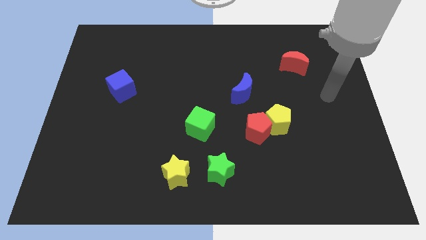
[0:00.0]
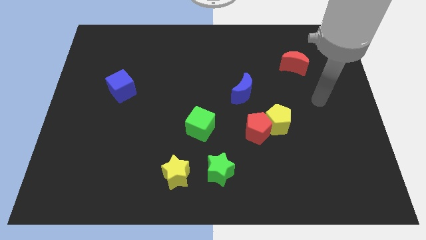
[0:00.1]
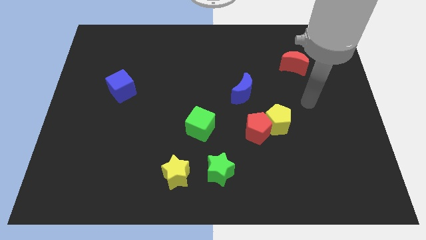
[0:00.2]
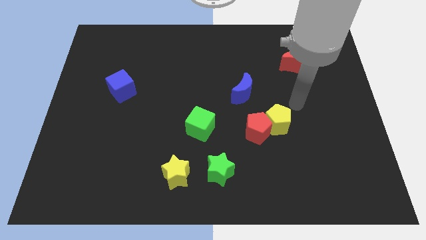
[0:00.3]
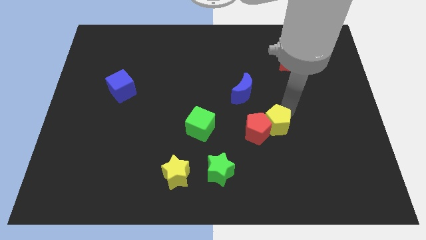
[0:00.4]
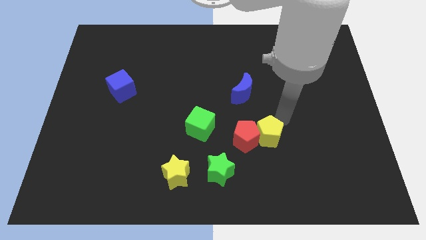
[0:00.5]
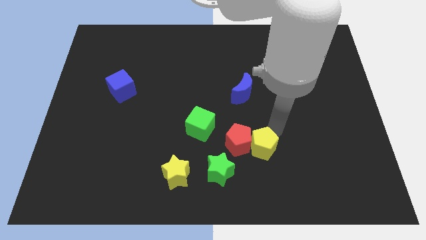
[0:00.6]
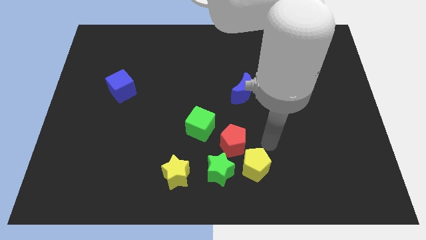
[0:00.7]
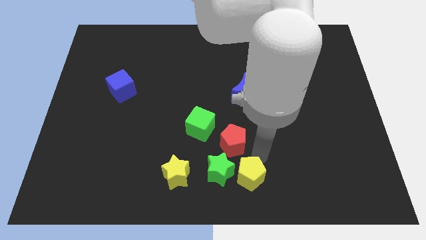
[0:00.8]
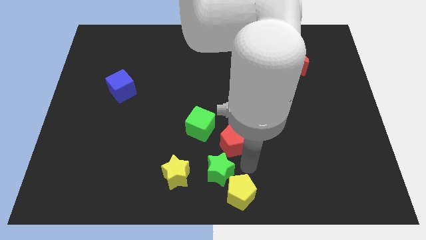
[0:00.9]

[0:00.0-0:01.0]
pull the red pentagon apart from the yellow pentagon

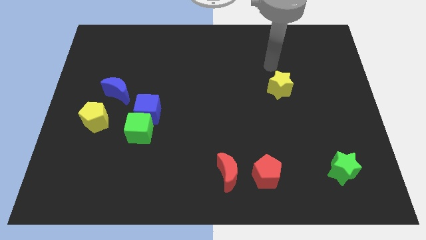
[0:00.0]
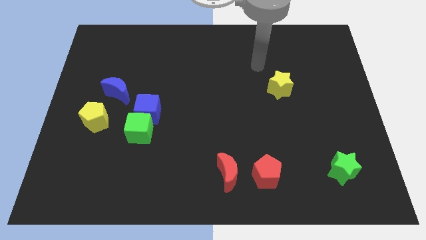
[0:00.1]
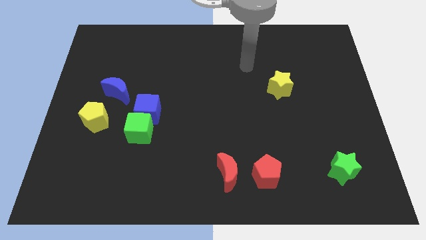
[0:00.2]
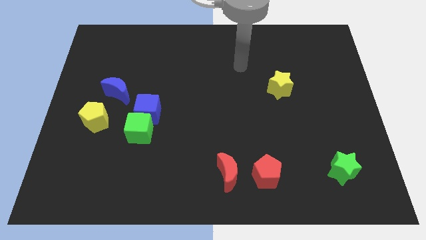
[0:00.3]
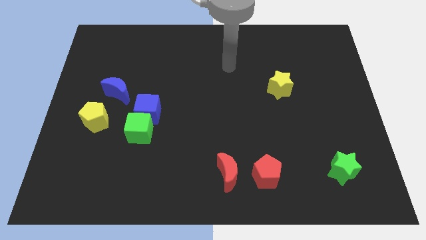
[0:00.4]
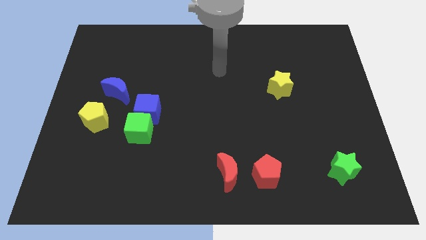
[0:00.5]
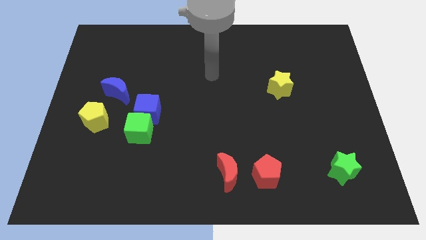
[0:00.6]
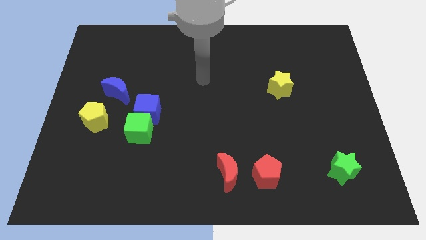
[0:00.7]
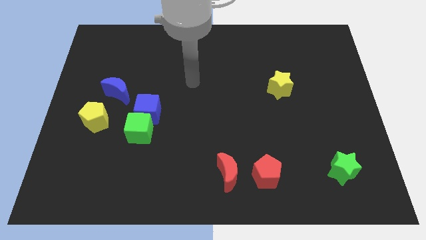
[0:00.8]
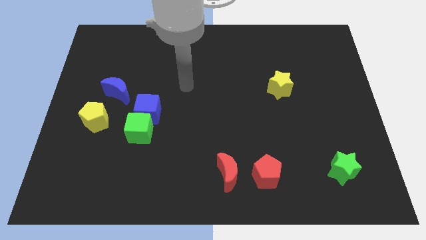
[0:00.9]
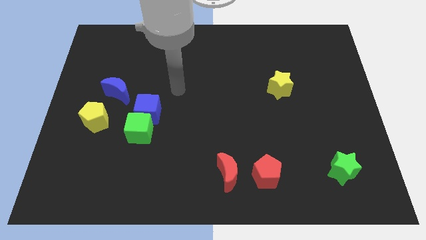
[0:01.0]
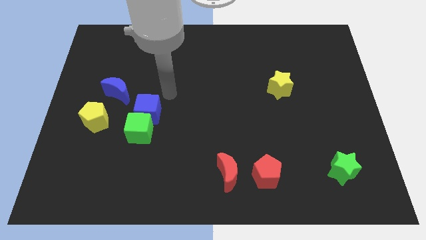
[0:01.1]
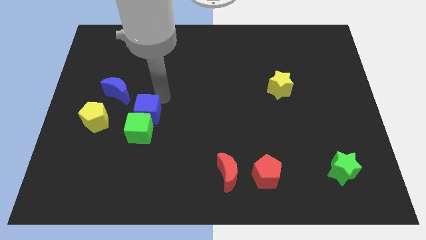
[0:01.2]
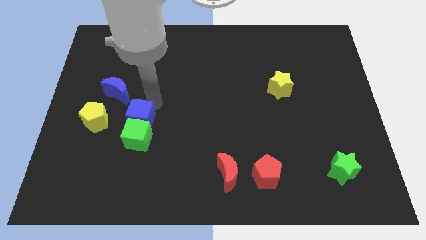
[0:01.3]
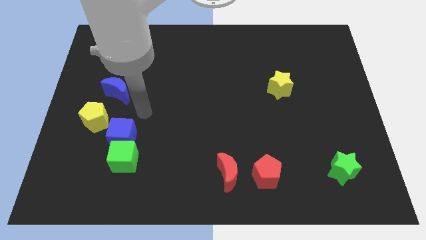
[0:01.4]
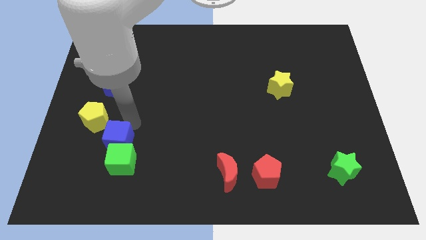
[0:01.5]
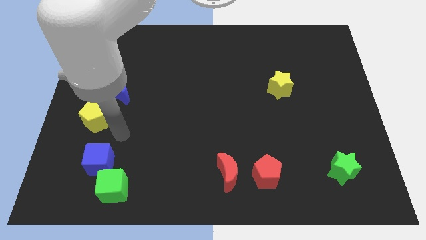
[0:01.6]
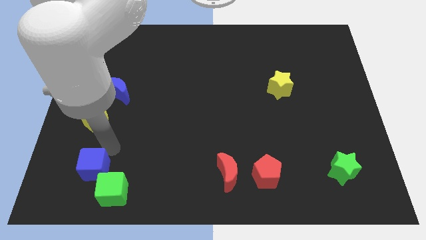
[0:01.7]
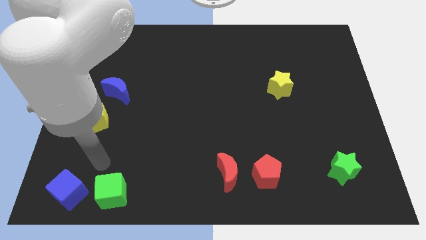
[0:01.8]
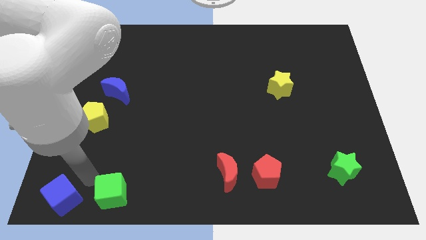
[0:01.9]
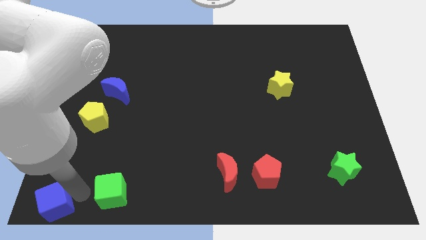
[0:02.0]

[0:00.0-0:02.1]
pull the green cube apart from the blue cube

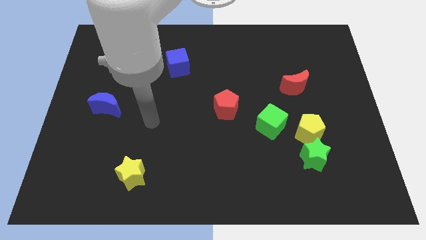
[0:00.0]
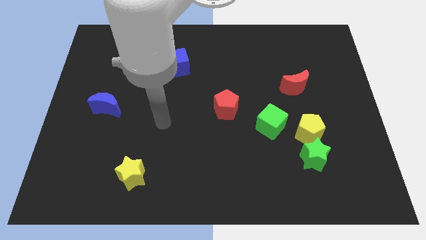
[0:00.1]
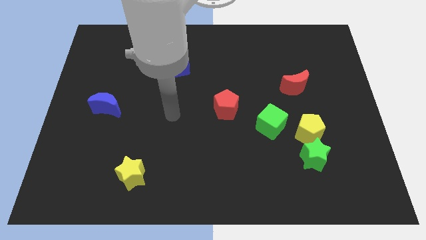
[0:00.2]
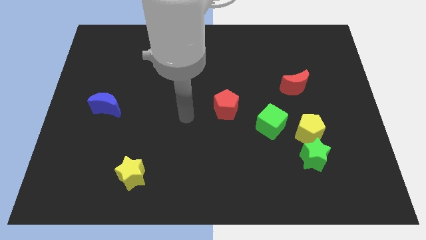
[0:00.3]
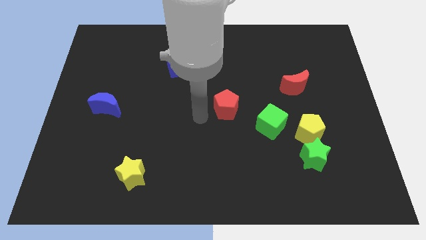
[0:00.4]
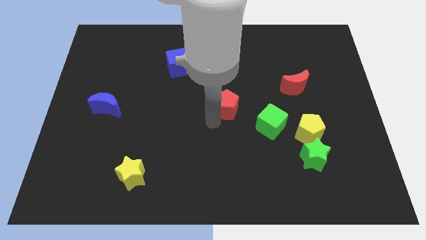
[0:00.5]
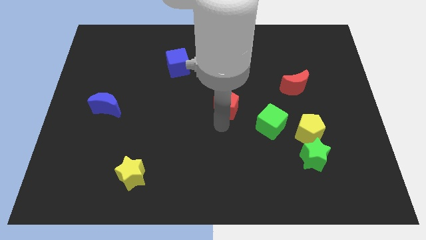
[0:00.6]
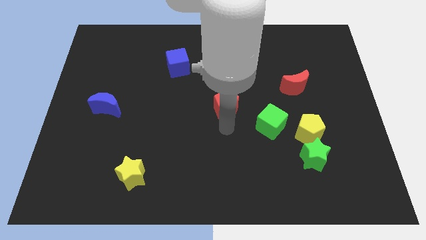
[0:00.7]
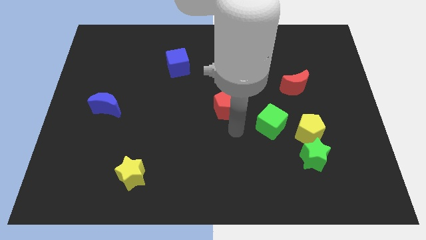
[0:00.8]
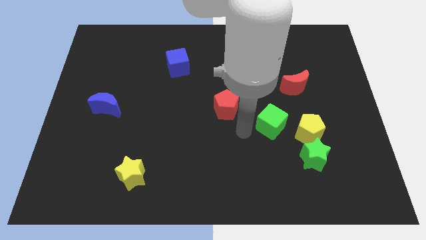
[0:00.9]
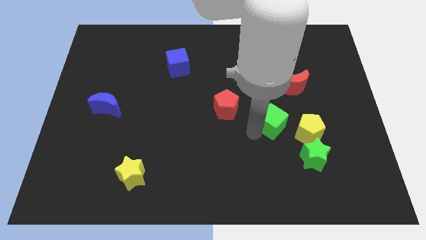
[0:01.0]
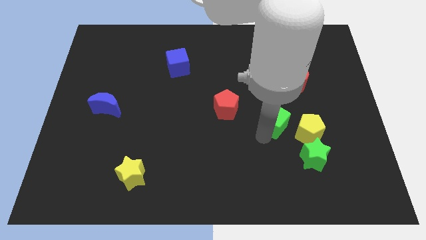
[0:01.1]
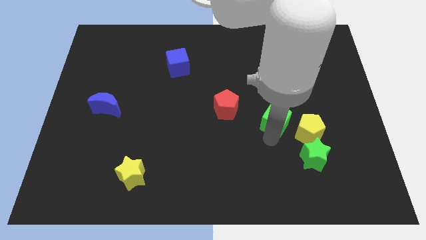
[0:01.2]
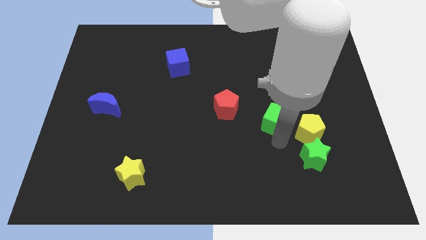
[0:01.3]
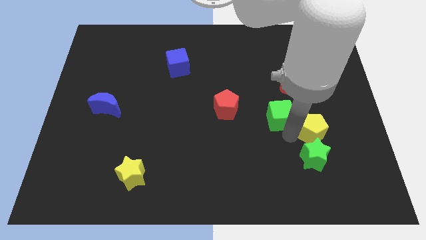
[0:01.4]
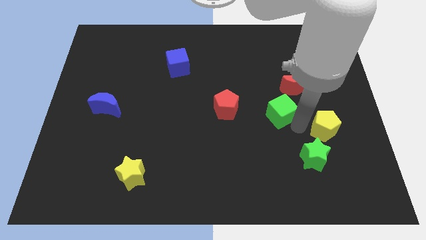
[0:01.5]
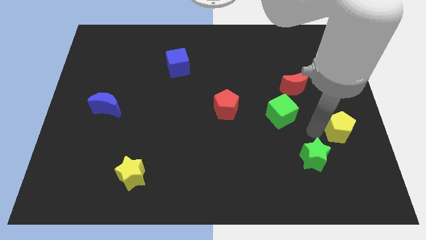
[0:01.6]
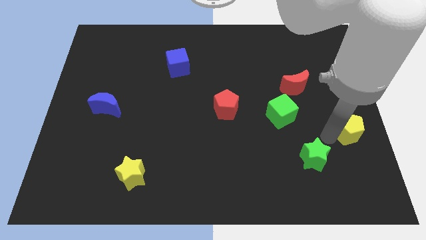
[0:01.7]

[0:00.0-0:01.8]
pull the green star apart from the yellow pentagon

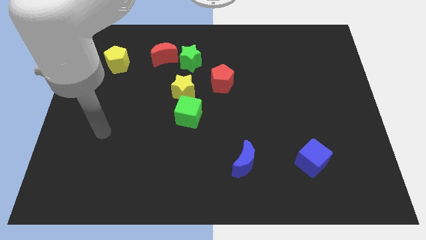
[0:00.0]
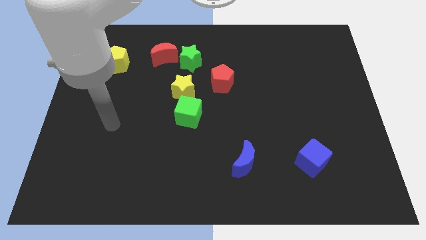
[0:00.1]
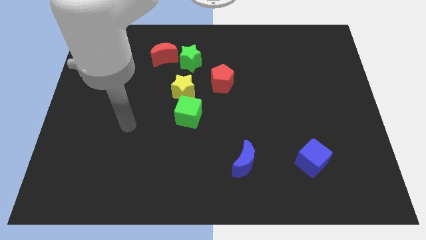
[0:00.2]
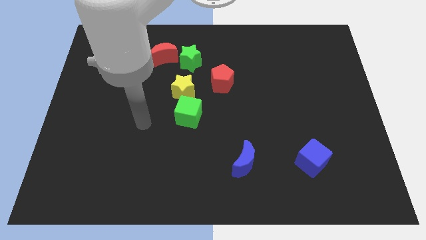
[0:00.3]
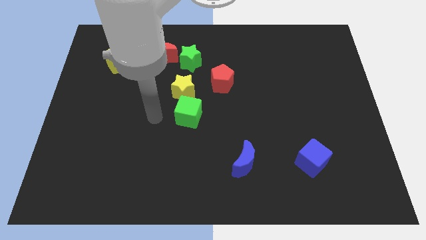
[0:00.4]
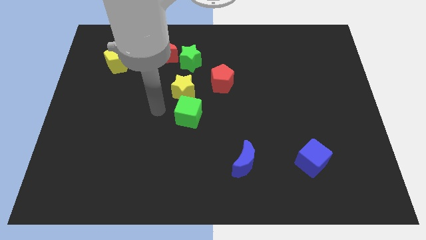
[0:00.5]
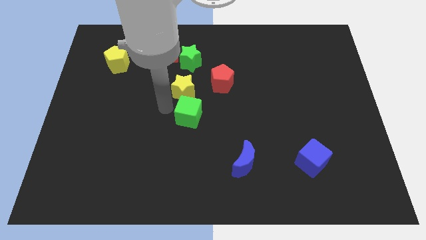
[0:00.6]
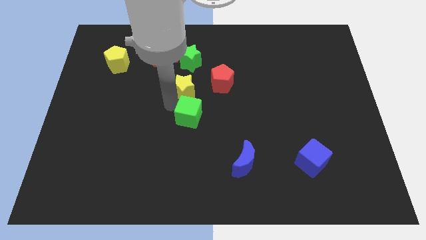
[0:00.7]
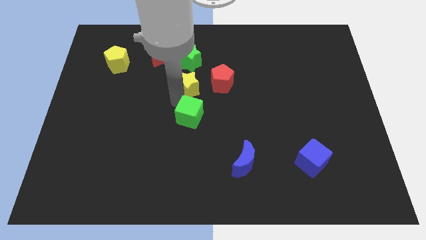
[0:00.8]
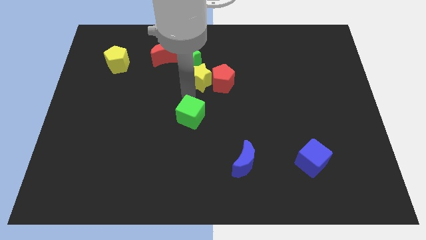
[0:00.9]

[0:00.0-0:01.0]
move the green cube away from the yellow star

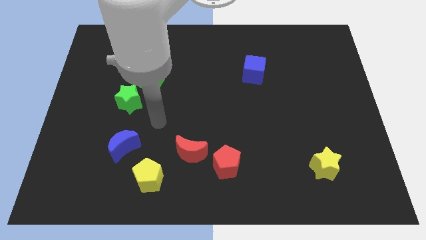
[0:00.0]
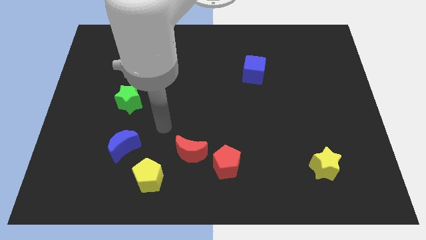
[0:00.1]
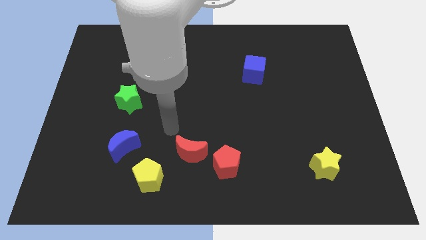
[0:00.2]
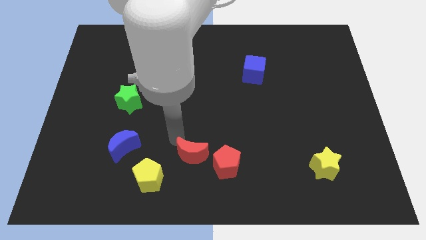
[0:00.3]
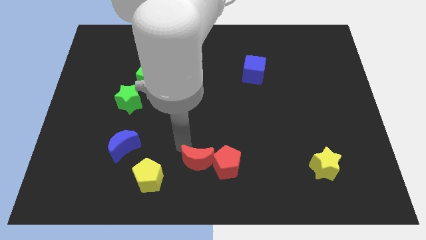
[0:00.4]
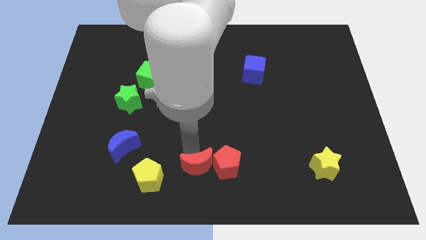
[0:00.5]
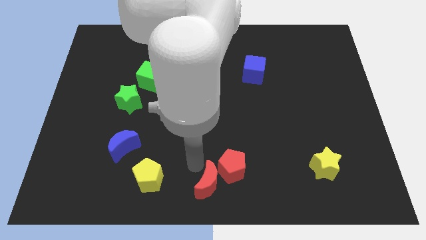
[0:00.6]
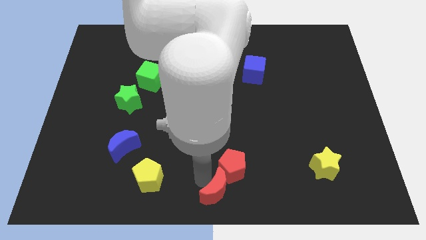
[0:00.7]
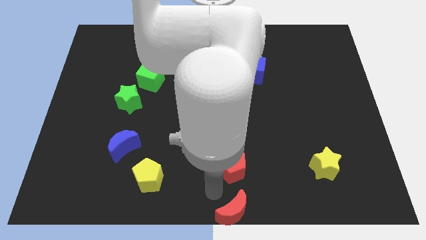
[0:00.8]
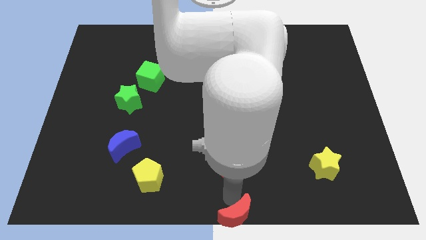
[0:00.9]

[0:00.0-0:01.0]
separate the red pentagon from the red moon

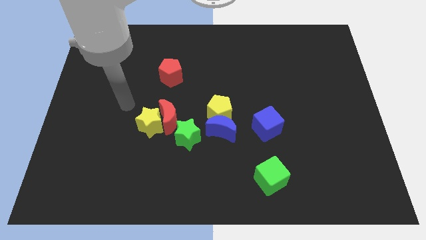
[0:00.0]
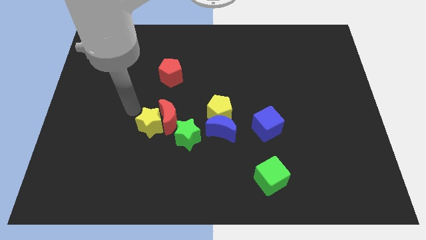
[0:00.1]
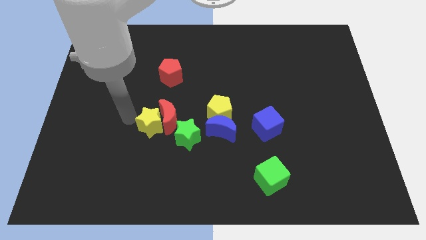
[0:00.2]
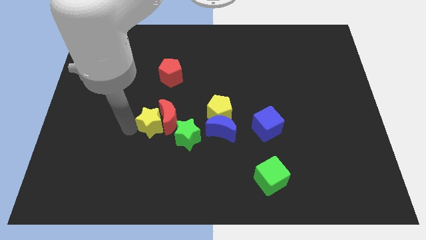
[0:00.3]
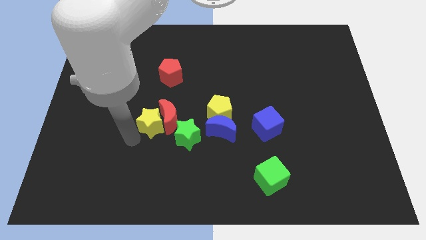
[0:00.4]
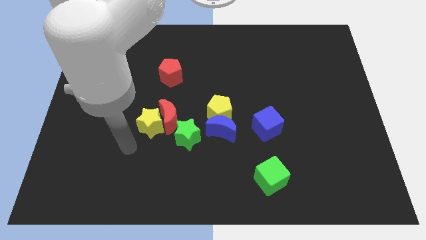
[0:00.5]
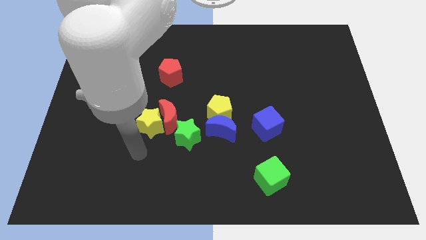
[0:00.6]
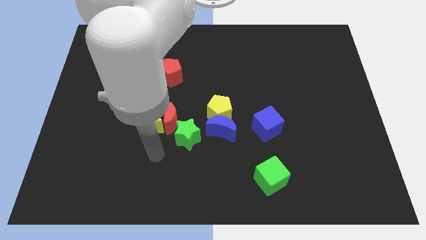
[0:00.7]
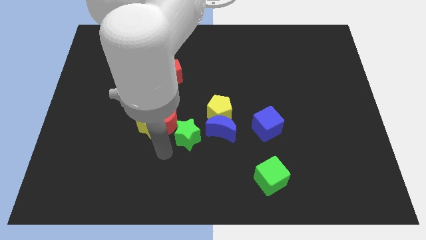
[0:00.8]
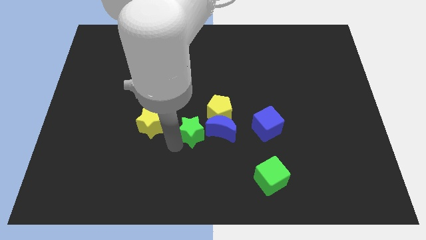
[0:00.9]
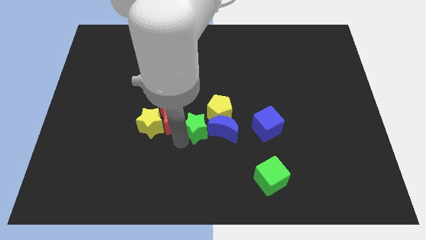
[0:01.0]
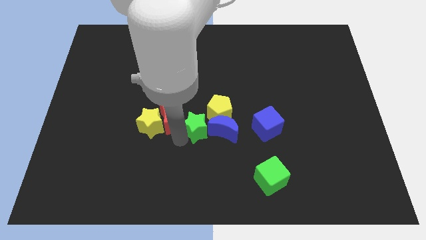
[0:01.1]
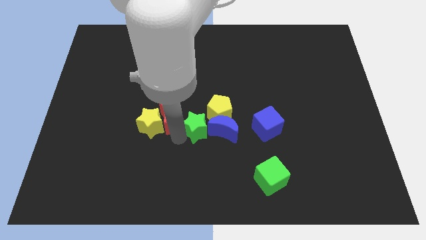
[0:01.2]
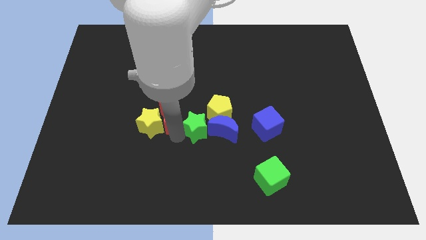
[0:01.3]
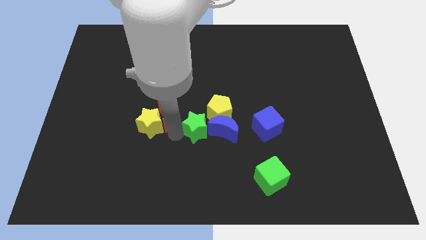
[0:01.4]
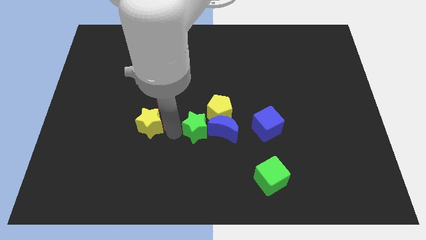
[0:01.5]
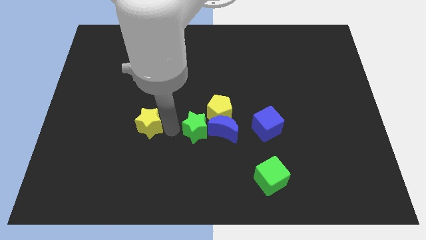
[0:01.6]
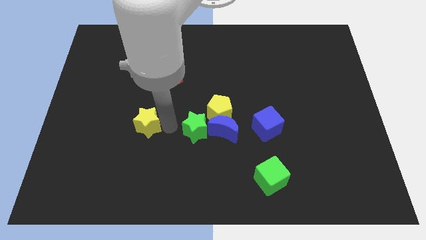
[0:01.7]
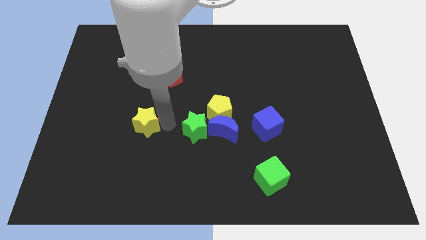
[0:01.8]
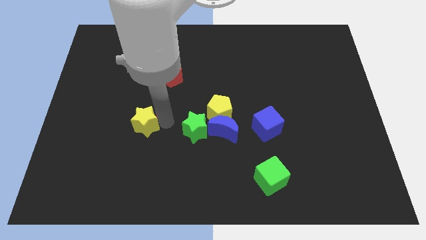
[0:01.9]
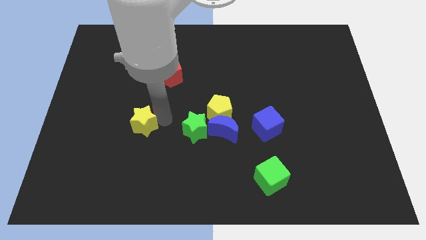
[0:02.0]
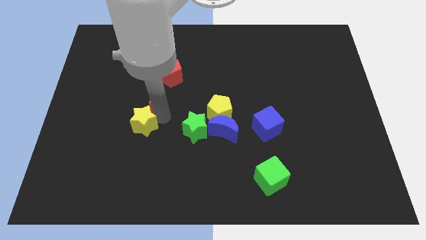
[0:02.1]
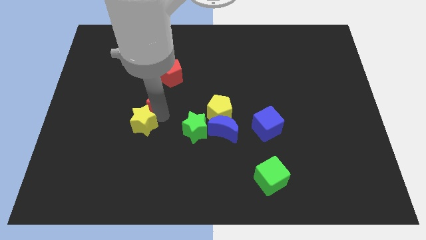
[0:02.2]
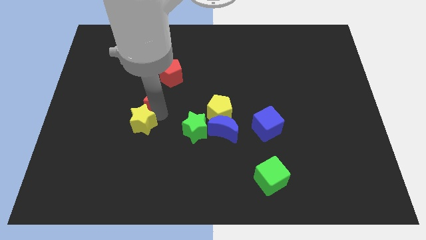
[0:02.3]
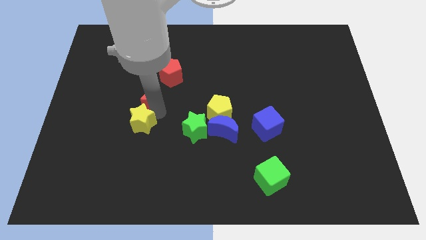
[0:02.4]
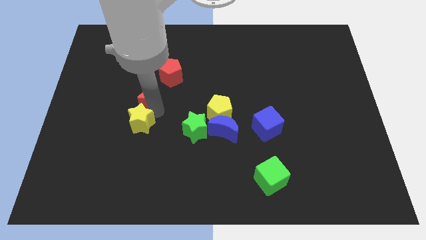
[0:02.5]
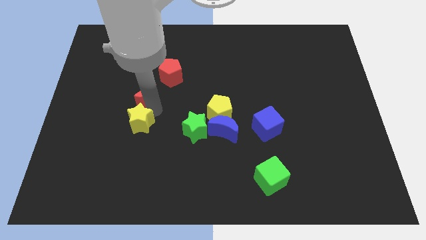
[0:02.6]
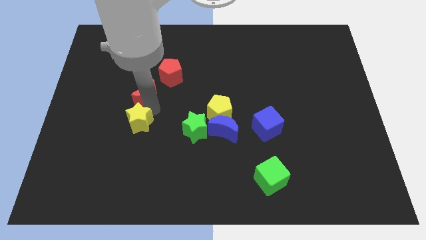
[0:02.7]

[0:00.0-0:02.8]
separate the red moon from the yellow star and green star
